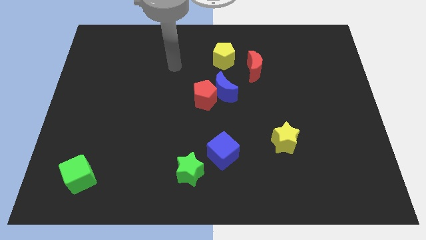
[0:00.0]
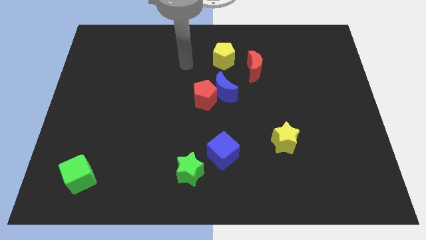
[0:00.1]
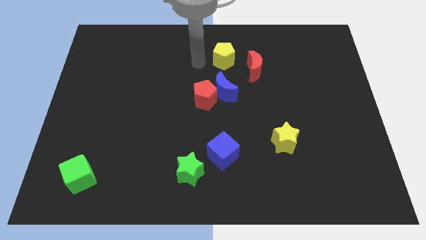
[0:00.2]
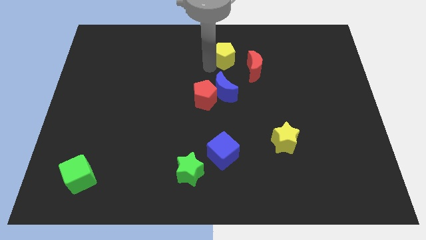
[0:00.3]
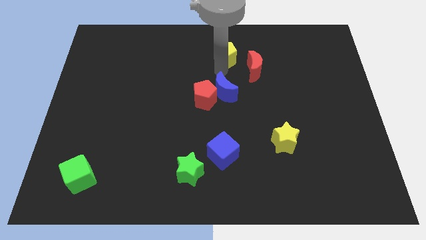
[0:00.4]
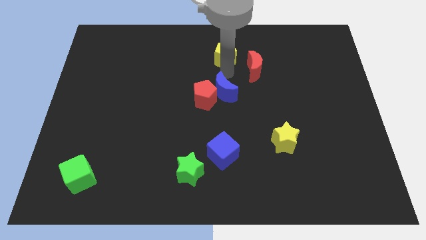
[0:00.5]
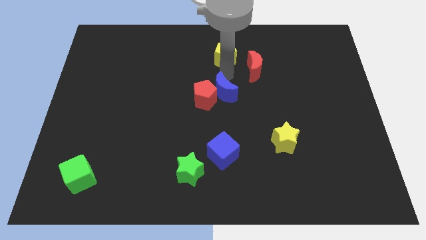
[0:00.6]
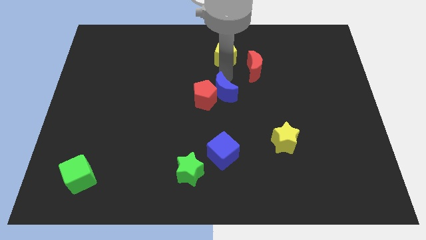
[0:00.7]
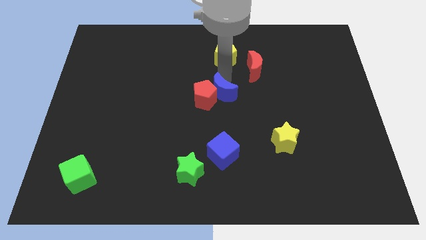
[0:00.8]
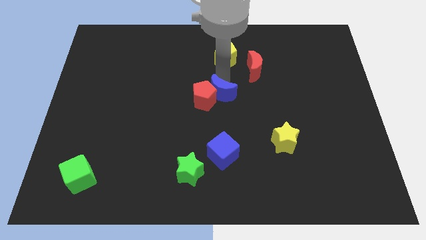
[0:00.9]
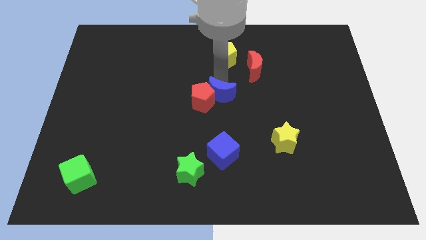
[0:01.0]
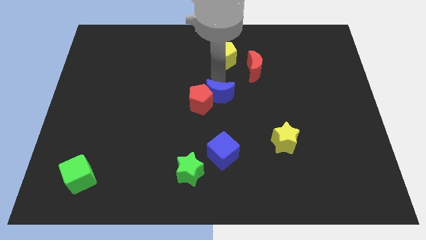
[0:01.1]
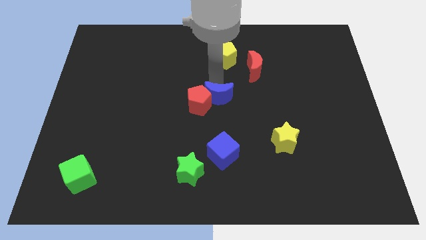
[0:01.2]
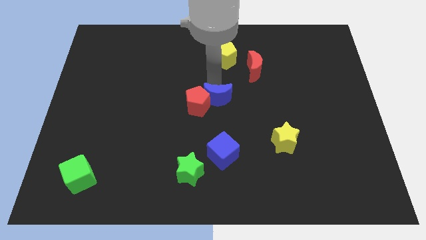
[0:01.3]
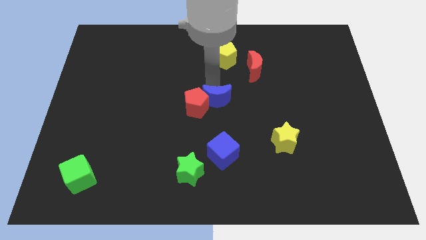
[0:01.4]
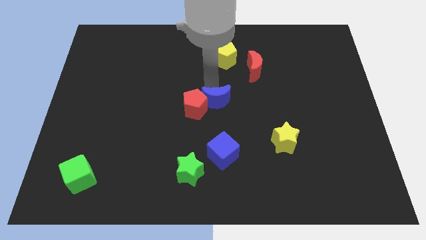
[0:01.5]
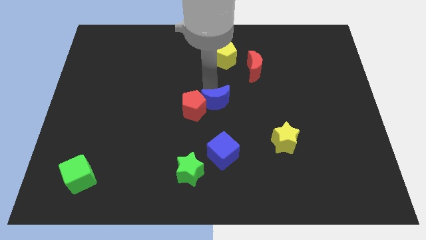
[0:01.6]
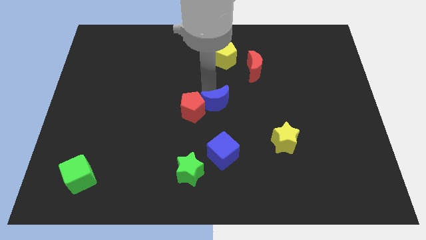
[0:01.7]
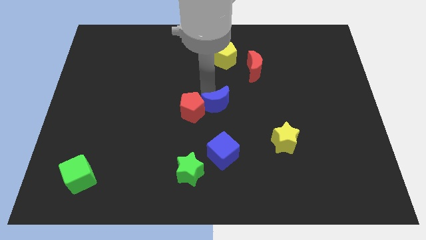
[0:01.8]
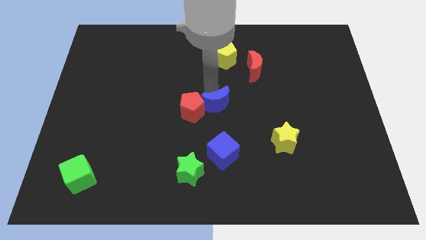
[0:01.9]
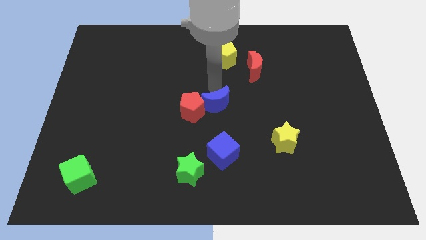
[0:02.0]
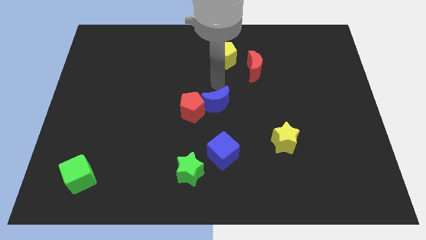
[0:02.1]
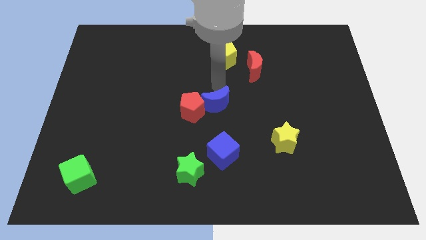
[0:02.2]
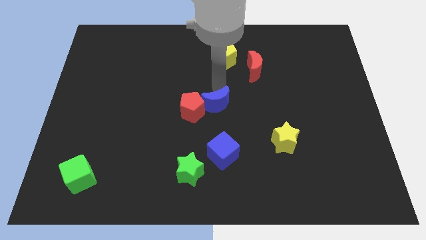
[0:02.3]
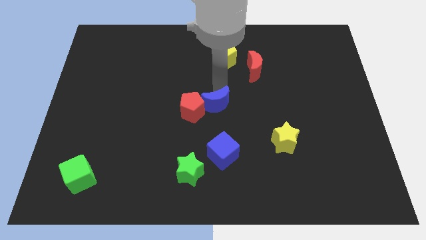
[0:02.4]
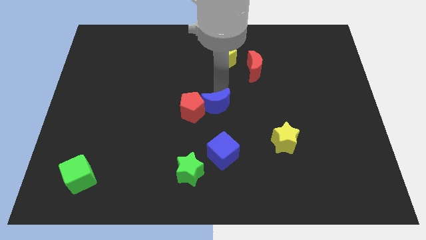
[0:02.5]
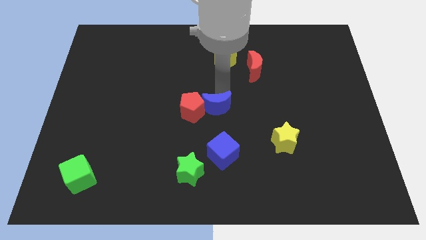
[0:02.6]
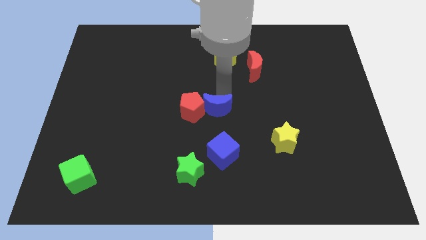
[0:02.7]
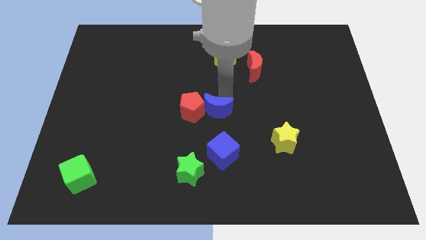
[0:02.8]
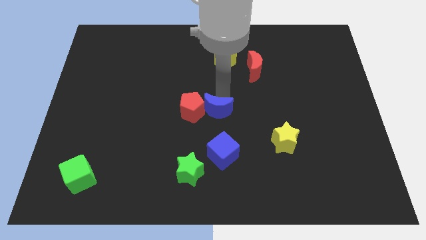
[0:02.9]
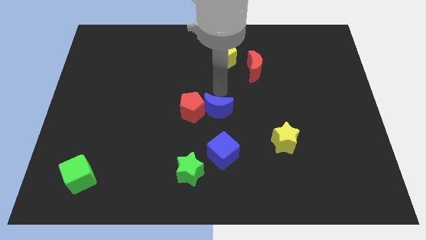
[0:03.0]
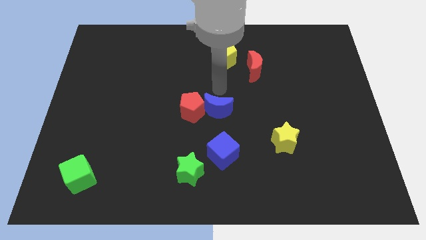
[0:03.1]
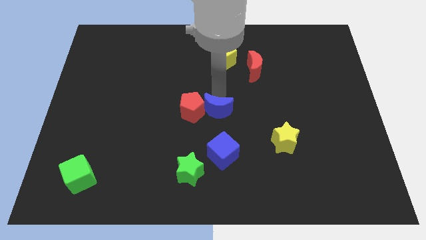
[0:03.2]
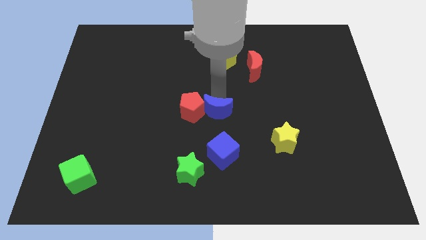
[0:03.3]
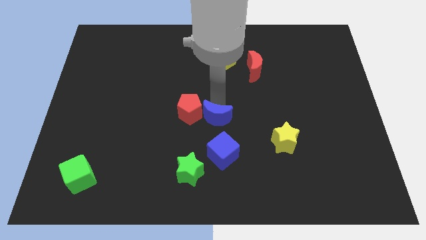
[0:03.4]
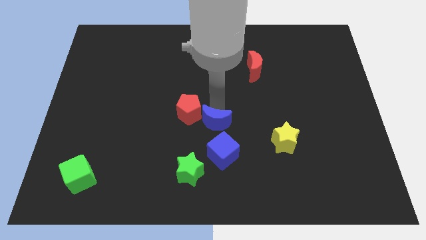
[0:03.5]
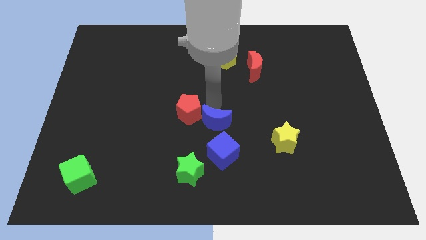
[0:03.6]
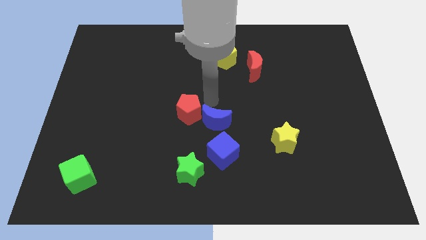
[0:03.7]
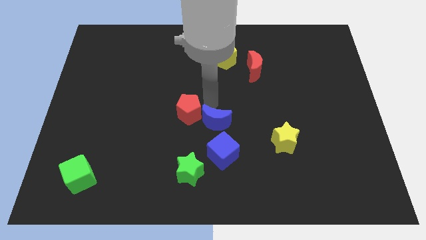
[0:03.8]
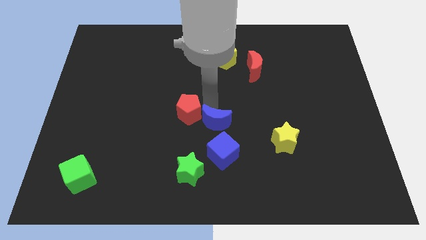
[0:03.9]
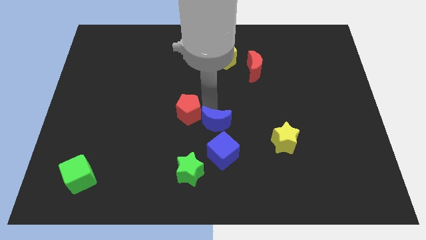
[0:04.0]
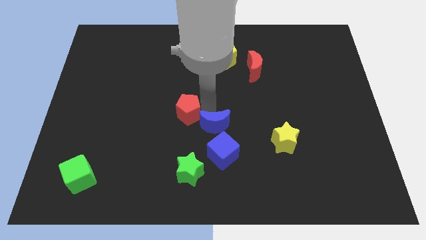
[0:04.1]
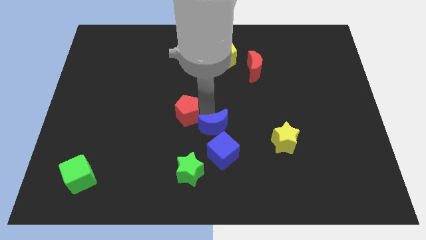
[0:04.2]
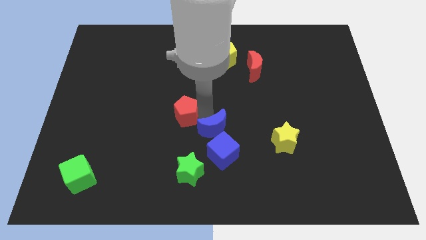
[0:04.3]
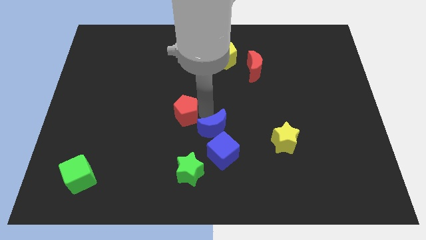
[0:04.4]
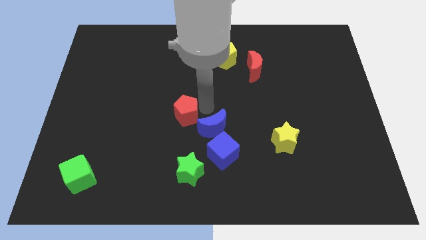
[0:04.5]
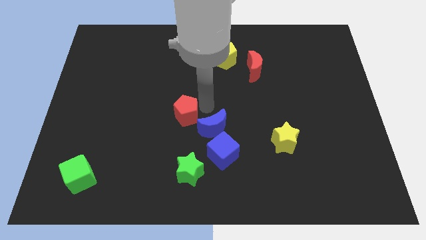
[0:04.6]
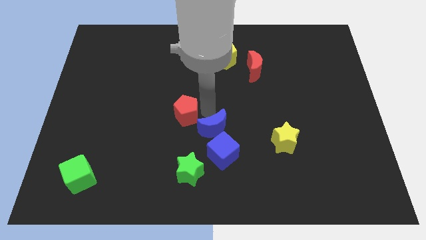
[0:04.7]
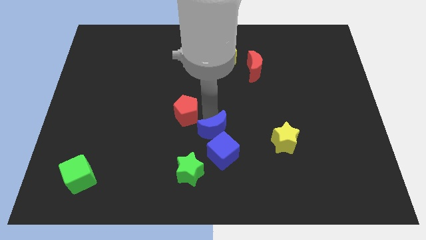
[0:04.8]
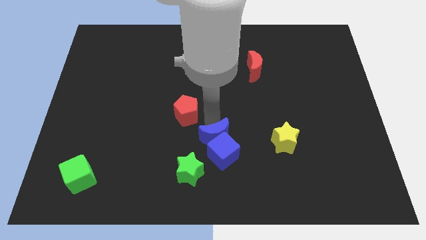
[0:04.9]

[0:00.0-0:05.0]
move the blue moon towards the blue cube

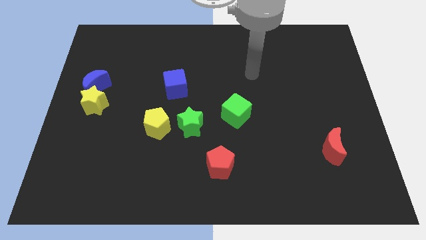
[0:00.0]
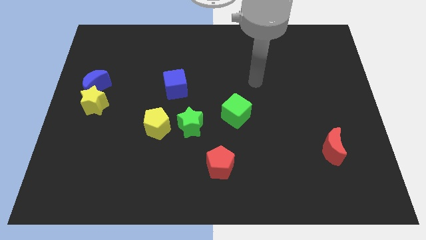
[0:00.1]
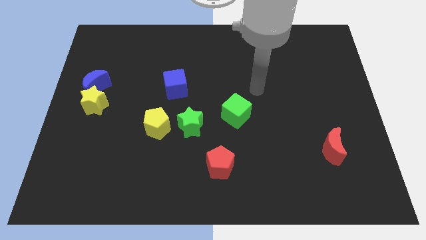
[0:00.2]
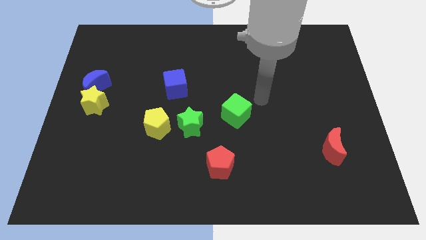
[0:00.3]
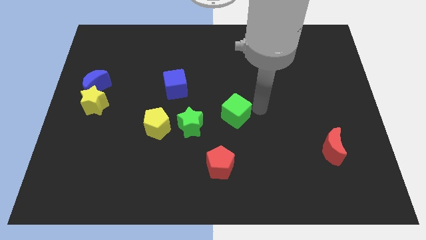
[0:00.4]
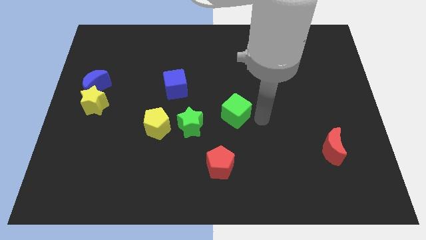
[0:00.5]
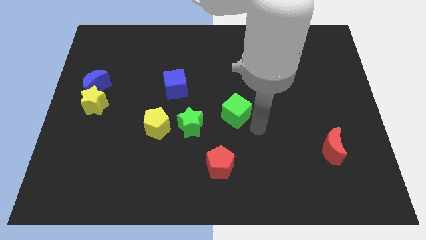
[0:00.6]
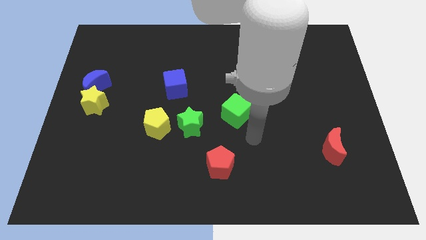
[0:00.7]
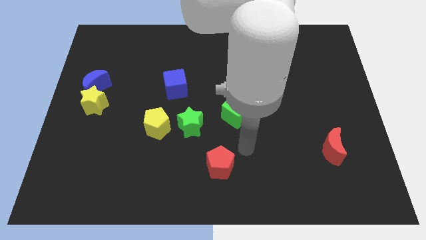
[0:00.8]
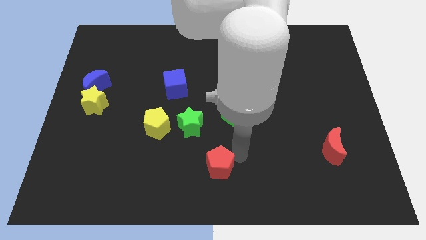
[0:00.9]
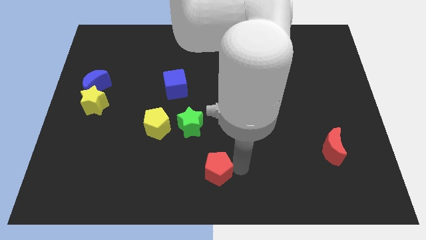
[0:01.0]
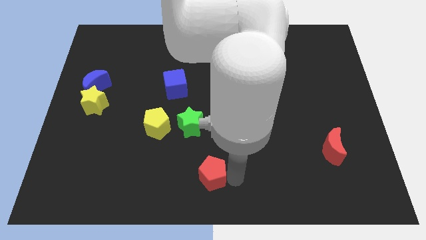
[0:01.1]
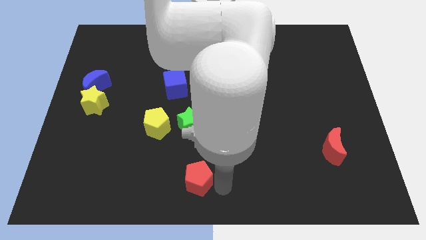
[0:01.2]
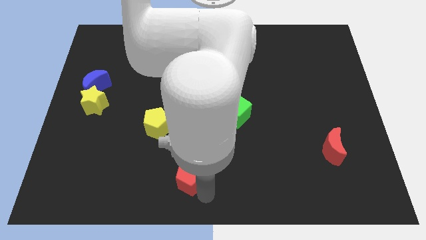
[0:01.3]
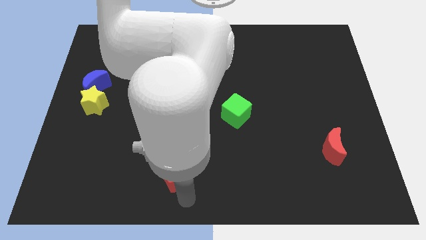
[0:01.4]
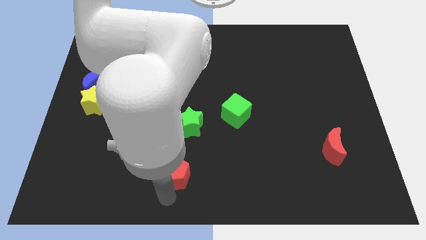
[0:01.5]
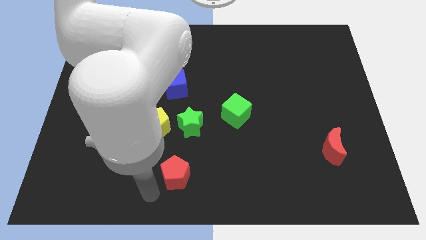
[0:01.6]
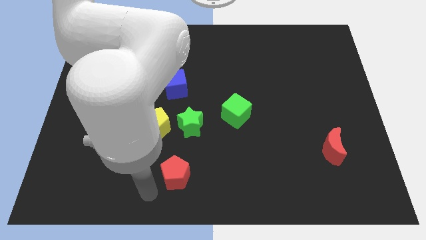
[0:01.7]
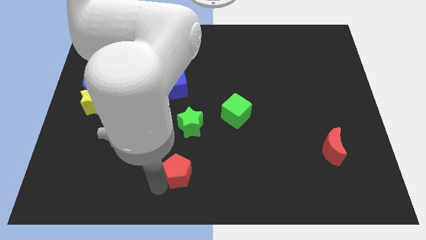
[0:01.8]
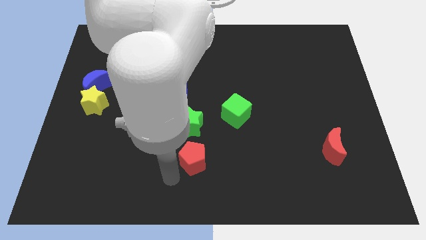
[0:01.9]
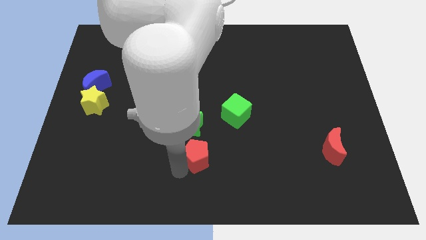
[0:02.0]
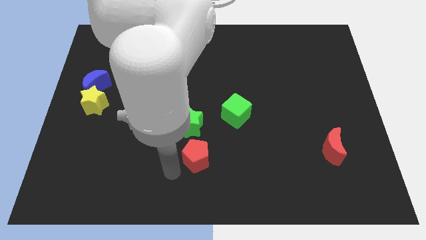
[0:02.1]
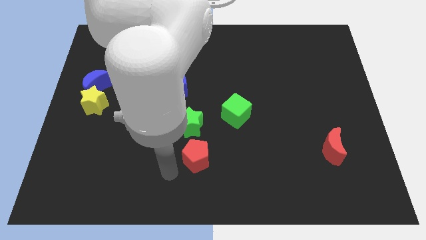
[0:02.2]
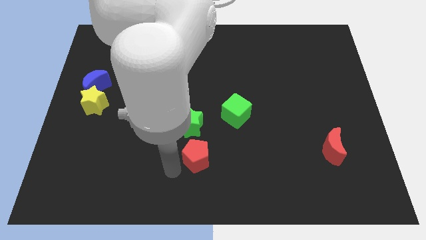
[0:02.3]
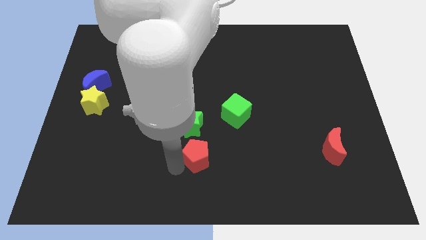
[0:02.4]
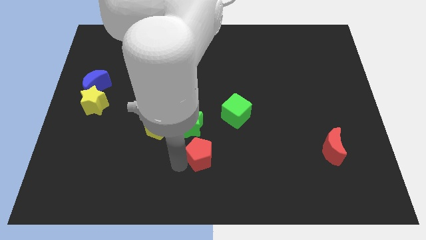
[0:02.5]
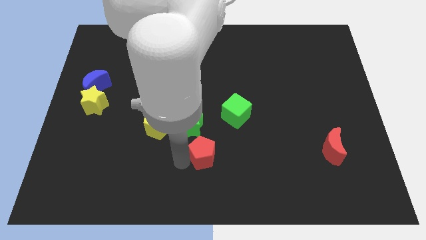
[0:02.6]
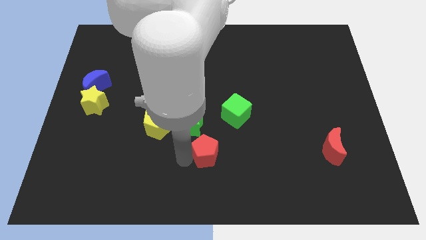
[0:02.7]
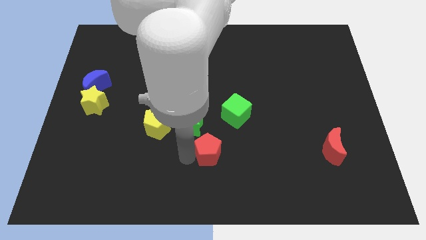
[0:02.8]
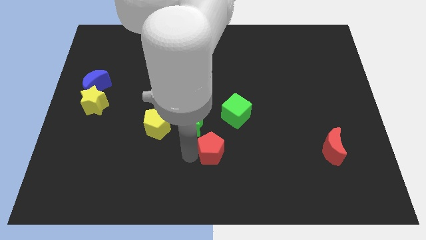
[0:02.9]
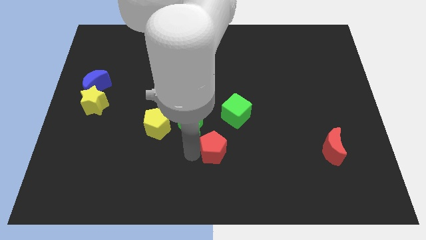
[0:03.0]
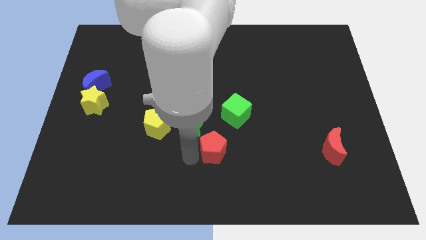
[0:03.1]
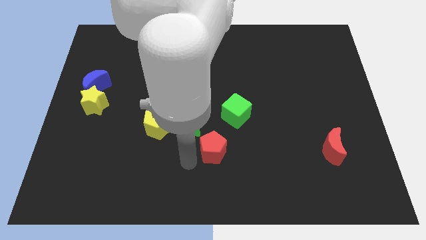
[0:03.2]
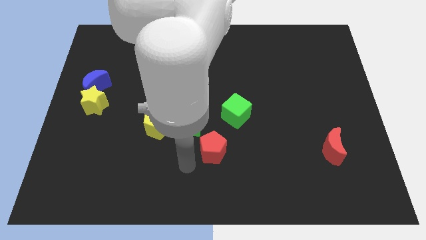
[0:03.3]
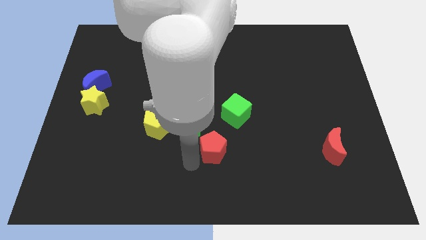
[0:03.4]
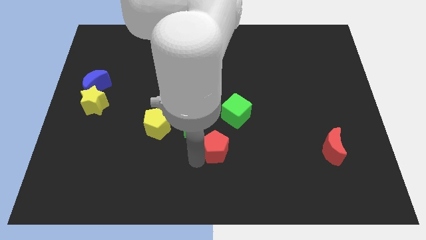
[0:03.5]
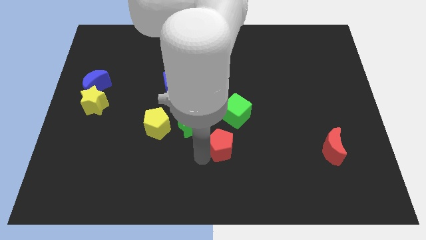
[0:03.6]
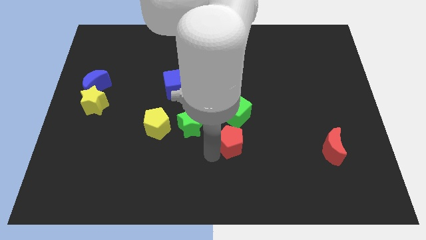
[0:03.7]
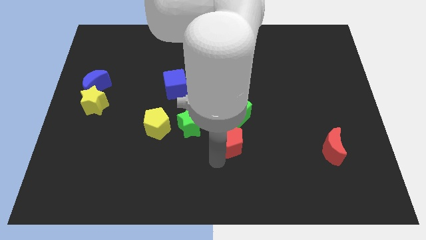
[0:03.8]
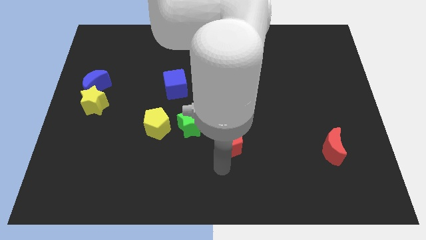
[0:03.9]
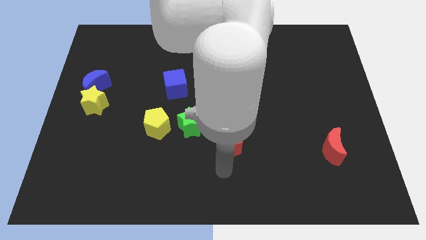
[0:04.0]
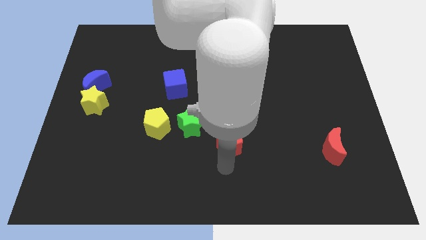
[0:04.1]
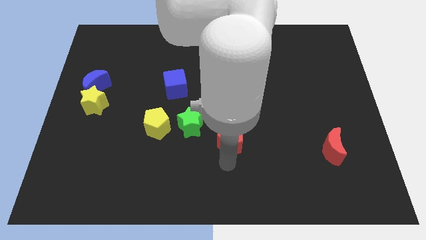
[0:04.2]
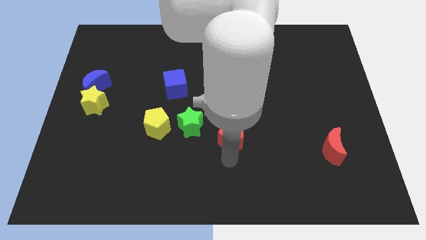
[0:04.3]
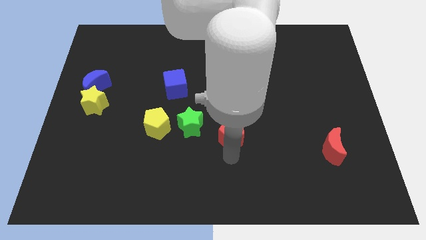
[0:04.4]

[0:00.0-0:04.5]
move the red pentagon close to the green cube
